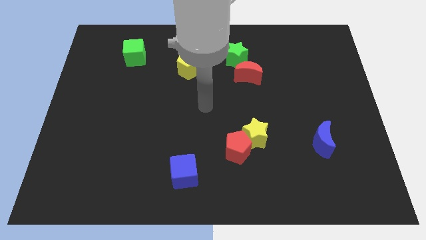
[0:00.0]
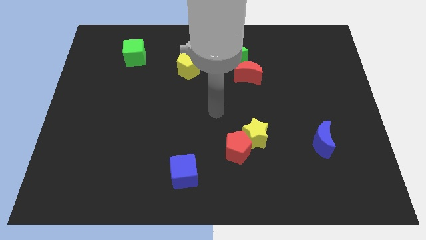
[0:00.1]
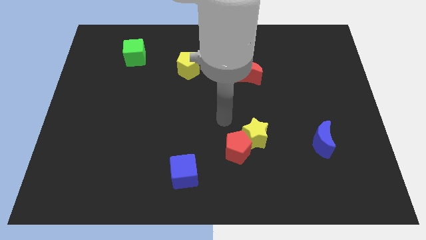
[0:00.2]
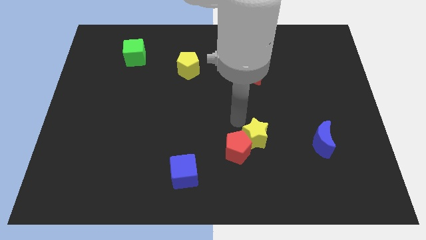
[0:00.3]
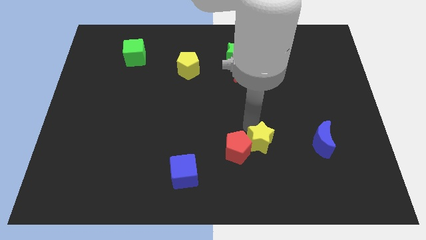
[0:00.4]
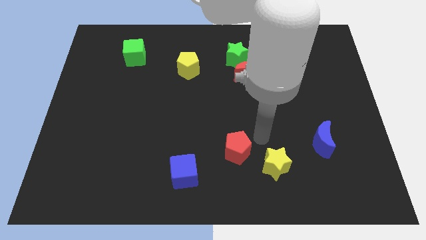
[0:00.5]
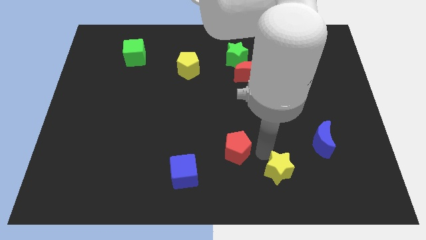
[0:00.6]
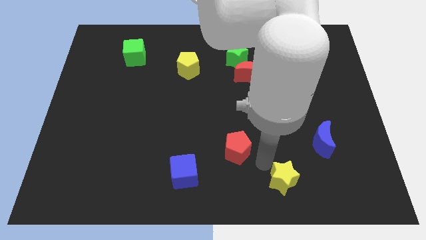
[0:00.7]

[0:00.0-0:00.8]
separate the red pentagon from the yellow star

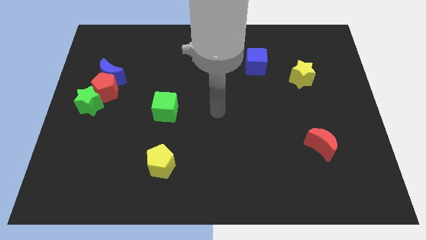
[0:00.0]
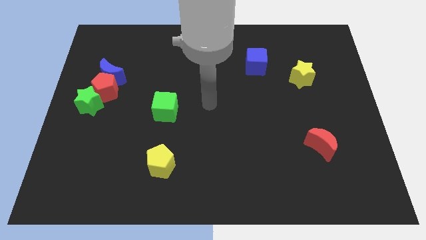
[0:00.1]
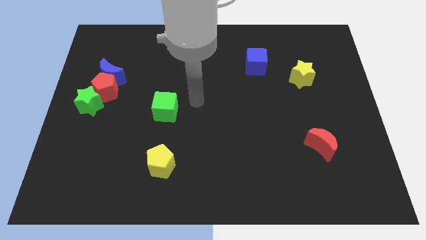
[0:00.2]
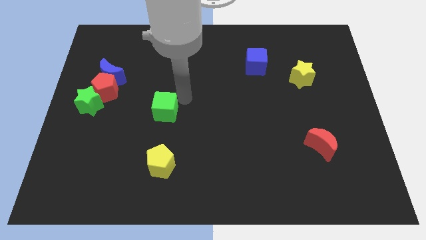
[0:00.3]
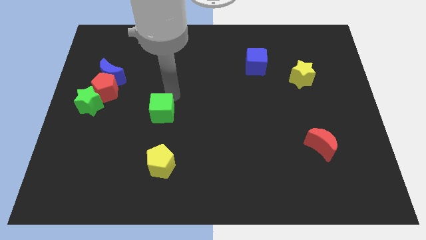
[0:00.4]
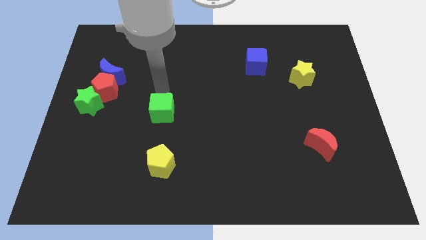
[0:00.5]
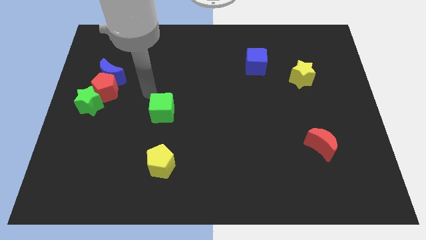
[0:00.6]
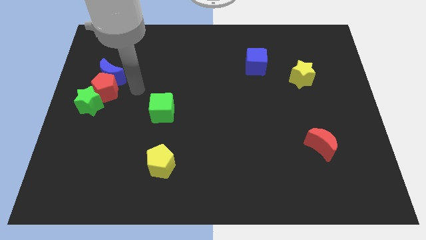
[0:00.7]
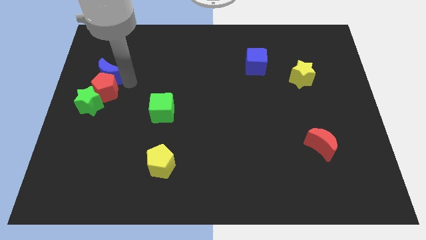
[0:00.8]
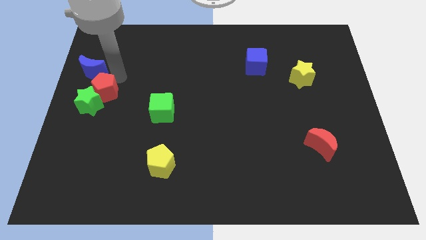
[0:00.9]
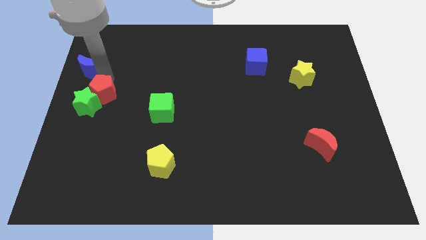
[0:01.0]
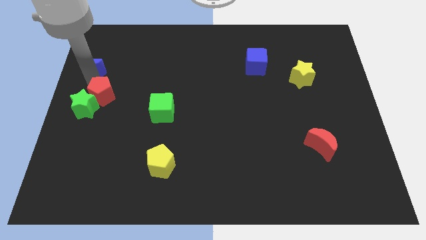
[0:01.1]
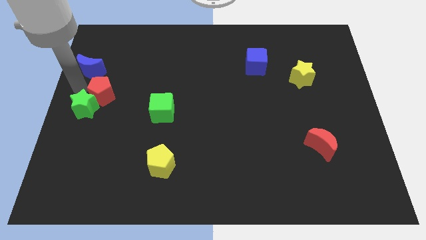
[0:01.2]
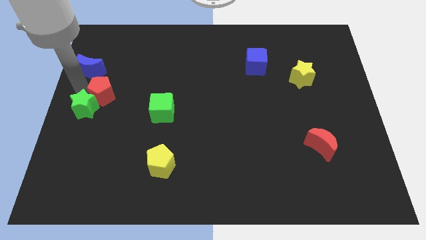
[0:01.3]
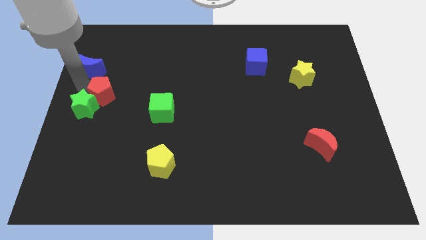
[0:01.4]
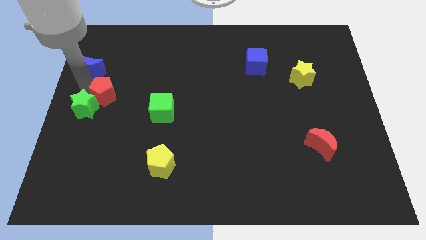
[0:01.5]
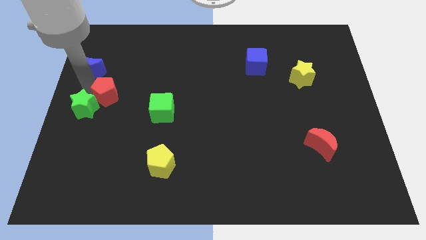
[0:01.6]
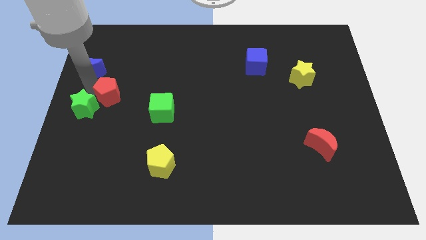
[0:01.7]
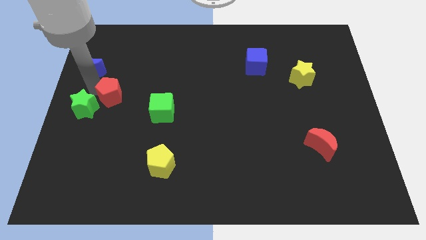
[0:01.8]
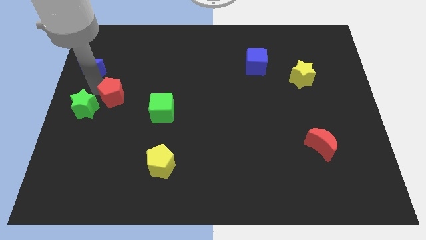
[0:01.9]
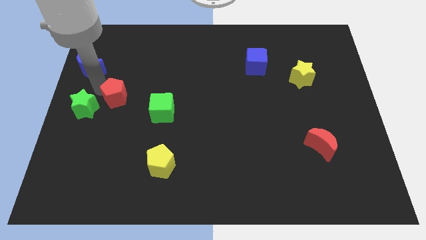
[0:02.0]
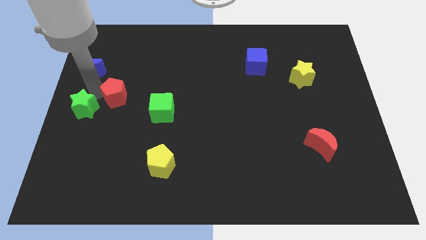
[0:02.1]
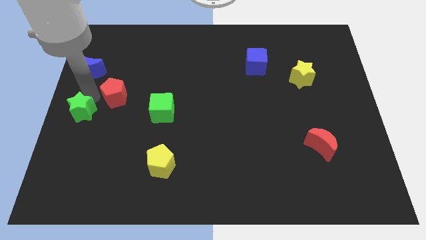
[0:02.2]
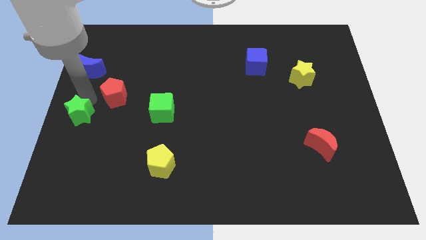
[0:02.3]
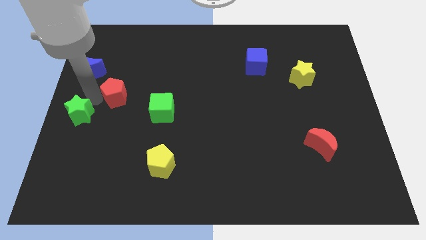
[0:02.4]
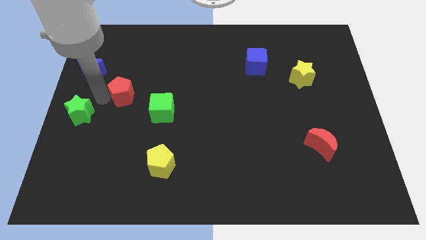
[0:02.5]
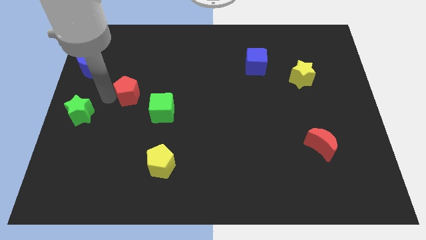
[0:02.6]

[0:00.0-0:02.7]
move the red pentagon away from the blue moon and green star

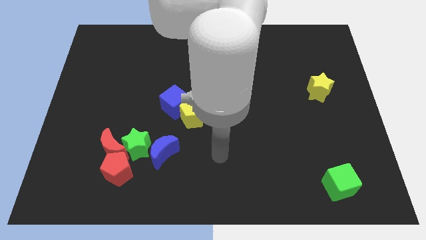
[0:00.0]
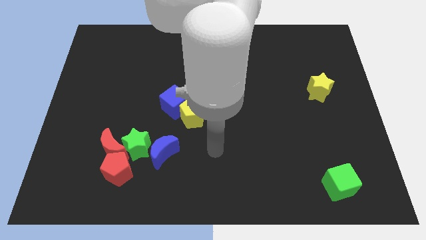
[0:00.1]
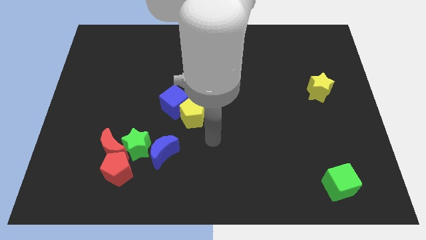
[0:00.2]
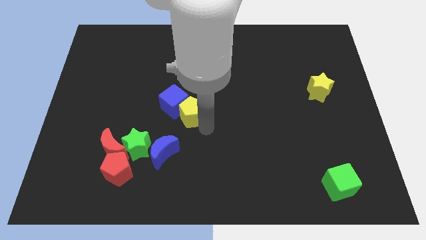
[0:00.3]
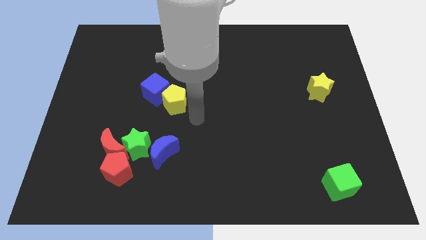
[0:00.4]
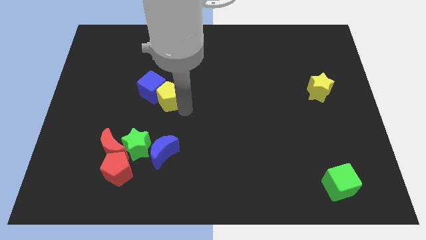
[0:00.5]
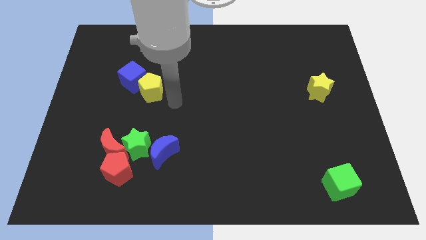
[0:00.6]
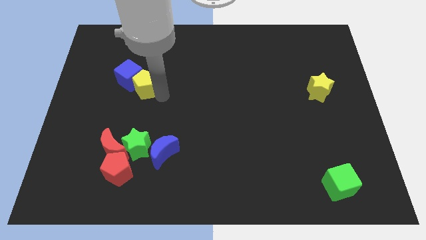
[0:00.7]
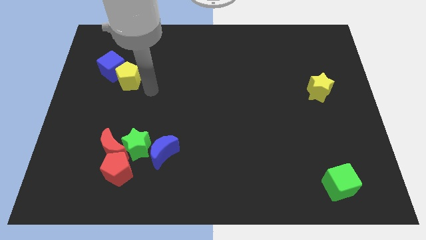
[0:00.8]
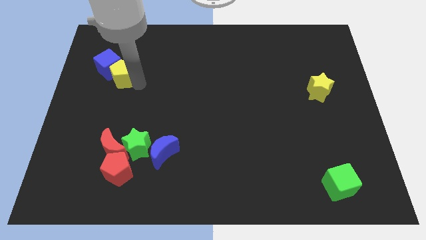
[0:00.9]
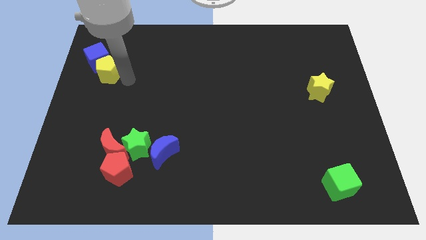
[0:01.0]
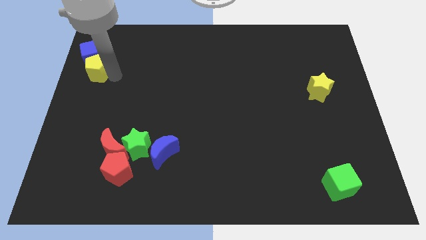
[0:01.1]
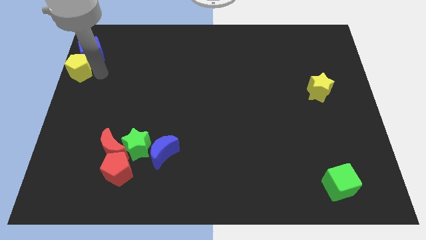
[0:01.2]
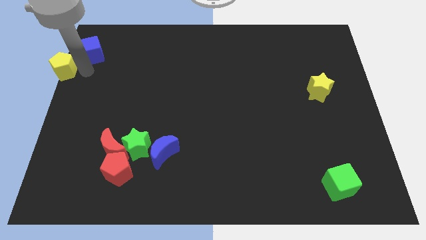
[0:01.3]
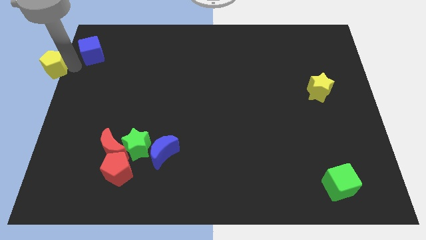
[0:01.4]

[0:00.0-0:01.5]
separate the blue cube from the yellow pentagon

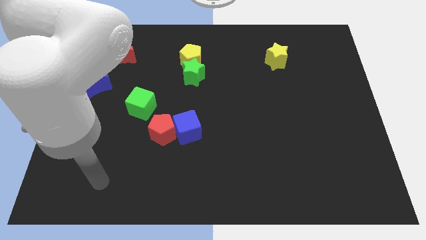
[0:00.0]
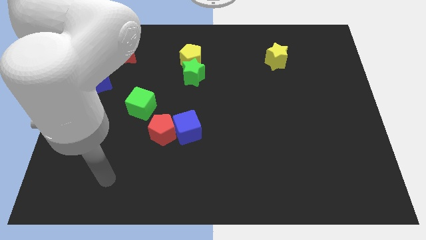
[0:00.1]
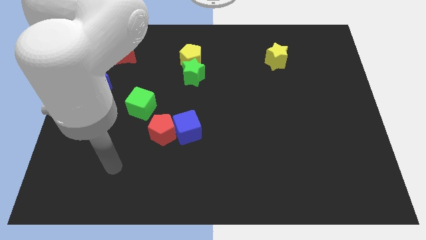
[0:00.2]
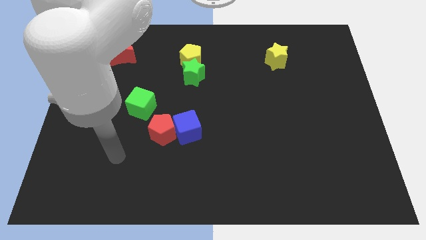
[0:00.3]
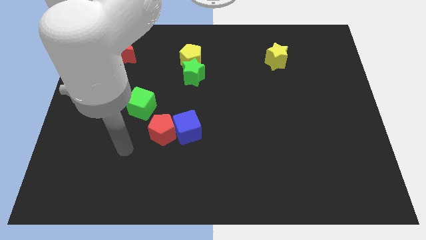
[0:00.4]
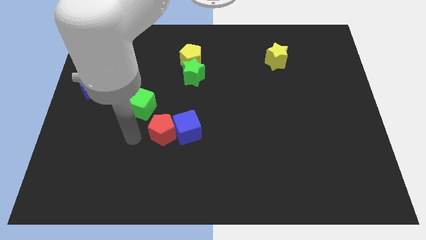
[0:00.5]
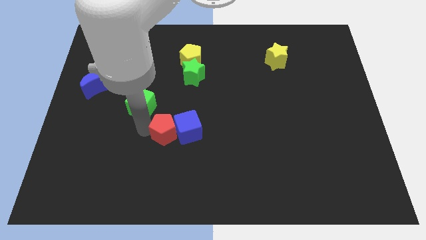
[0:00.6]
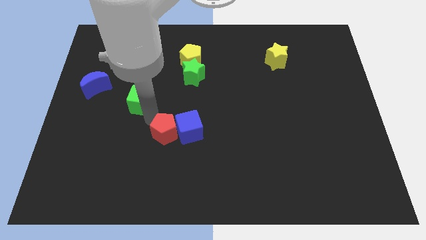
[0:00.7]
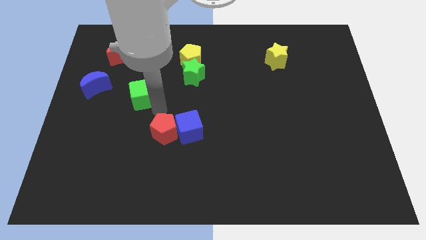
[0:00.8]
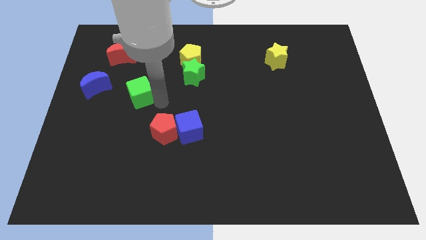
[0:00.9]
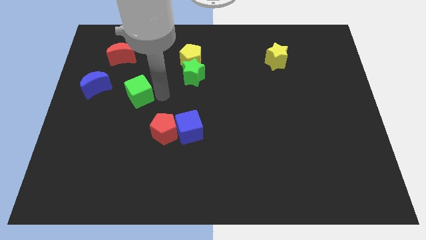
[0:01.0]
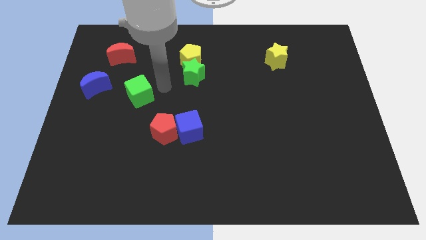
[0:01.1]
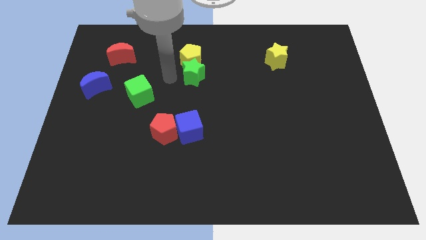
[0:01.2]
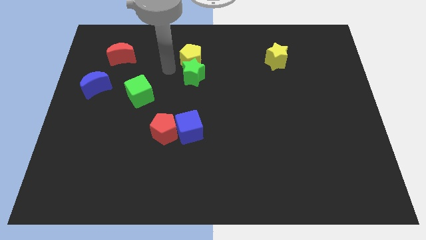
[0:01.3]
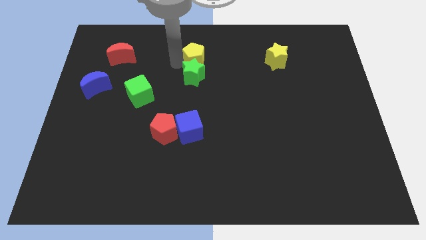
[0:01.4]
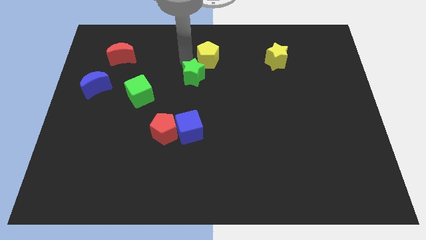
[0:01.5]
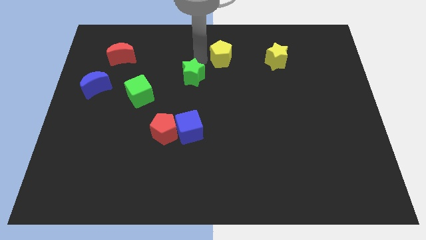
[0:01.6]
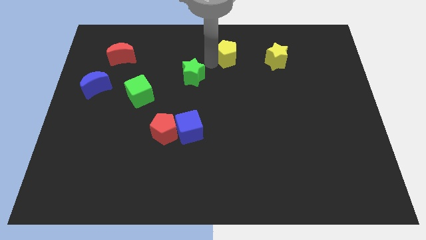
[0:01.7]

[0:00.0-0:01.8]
separate the green star from the yellow pentagon

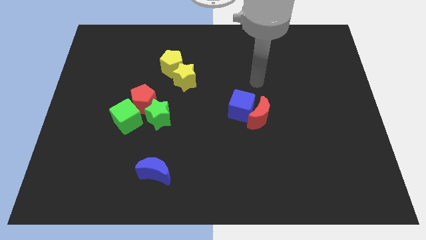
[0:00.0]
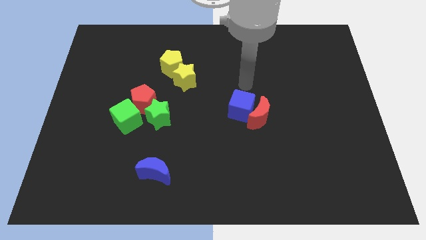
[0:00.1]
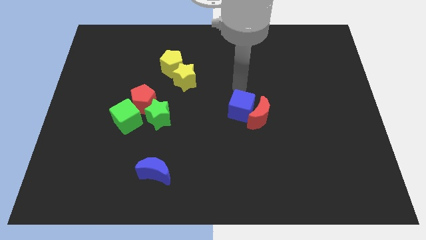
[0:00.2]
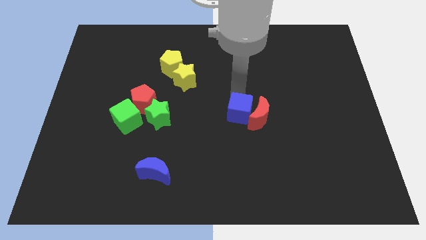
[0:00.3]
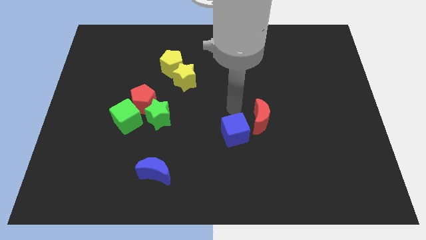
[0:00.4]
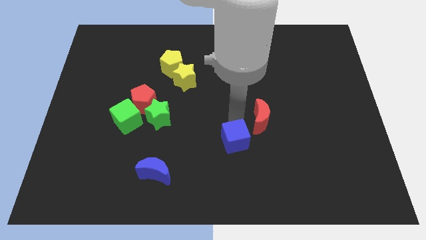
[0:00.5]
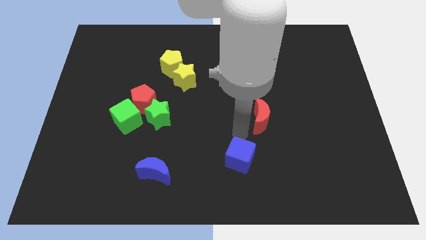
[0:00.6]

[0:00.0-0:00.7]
separate the red moon from the blue cube

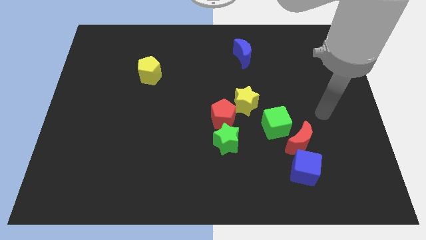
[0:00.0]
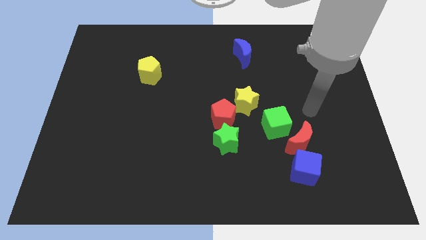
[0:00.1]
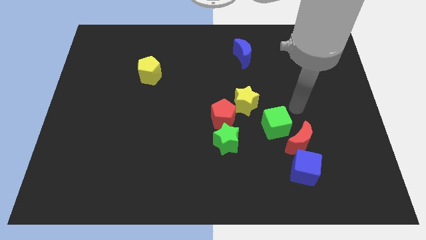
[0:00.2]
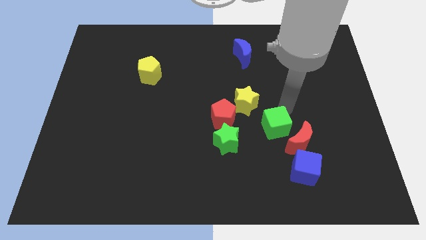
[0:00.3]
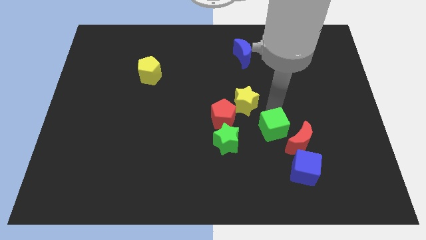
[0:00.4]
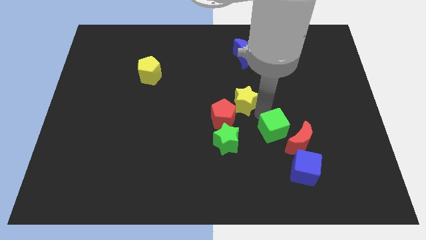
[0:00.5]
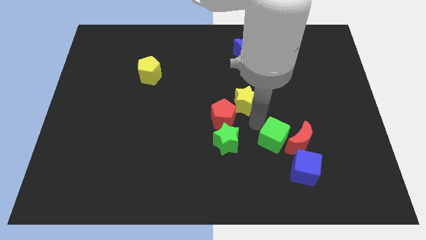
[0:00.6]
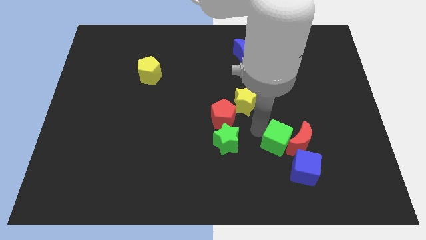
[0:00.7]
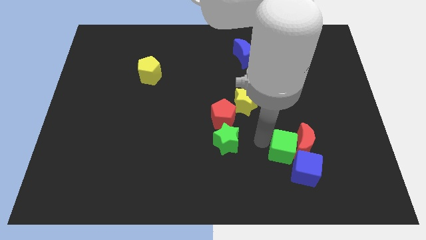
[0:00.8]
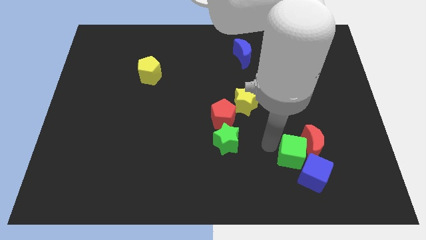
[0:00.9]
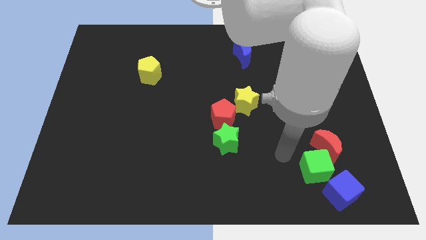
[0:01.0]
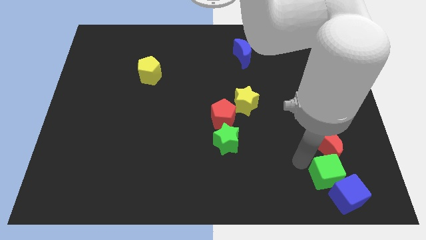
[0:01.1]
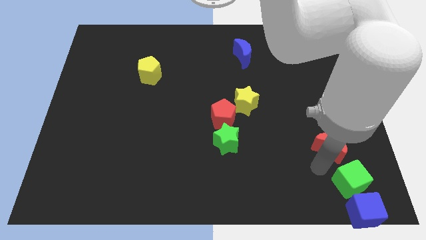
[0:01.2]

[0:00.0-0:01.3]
pull the red moon apart from the green cube and blue cube

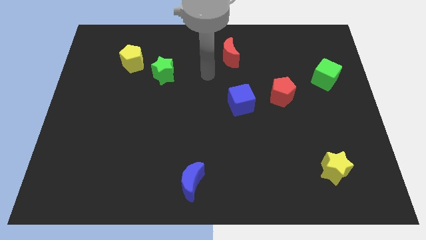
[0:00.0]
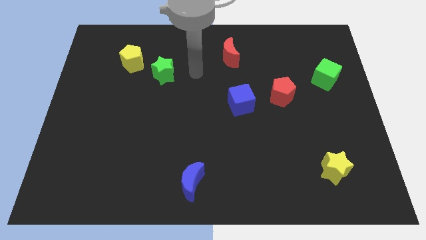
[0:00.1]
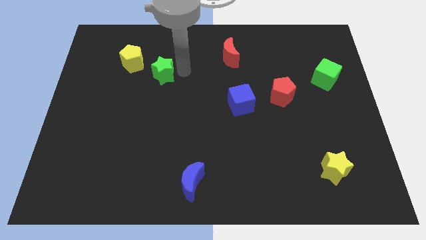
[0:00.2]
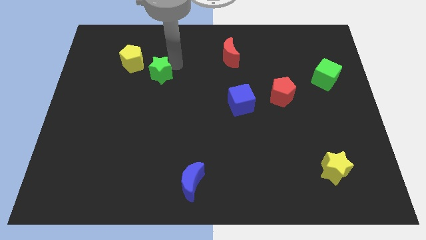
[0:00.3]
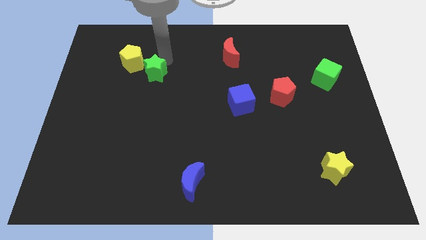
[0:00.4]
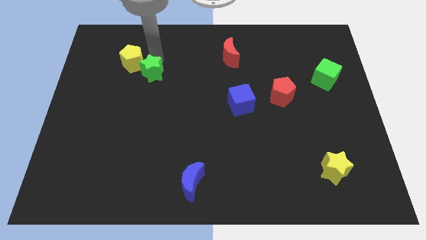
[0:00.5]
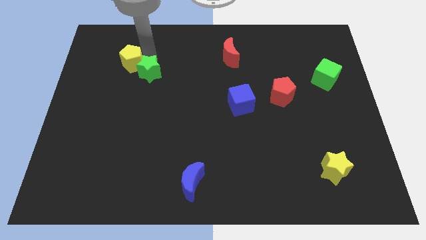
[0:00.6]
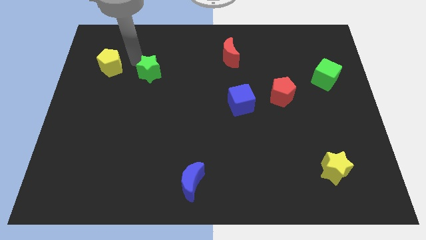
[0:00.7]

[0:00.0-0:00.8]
move the green star away from the yellow pentagon
